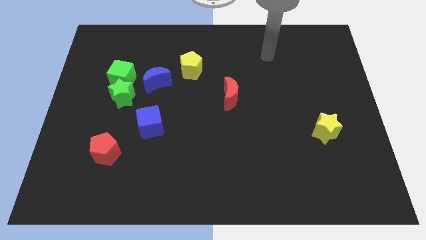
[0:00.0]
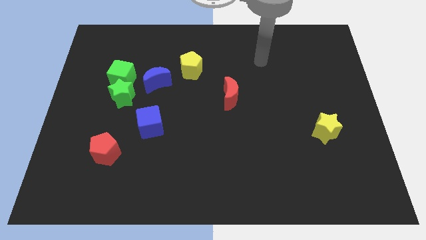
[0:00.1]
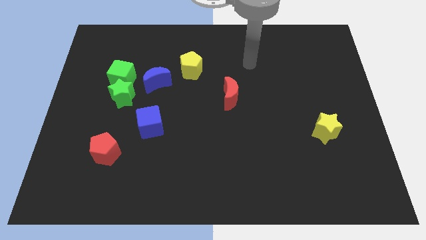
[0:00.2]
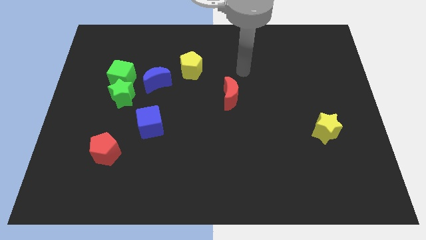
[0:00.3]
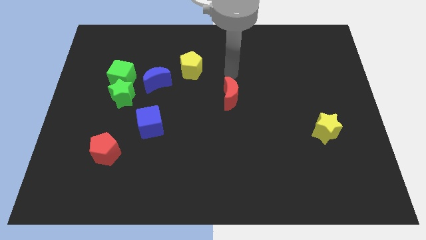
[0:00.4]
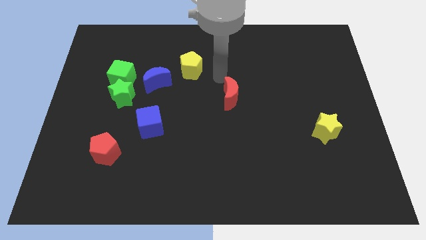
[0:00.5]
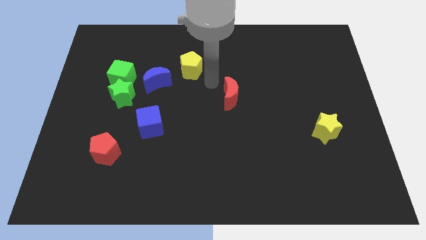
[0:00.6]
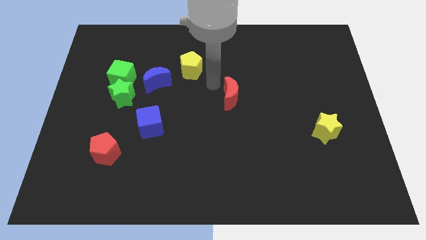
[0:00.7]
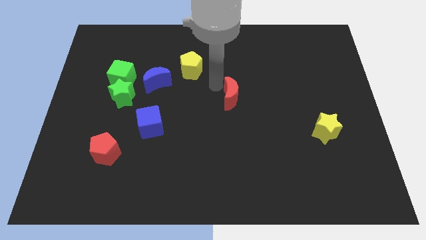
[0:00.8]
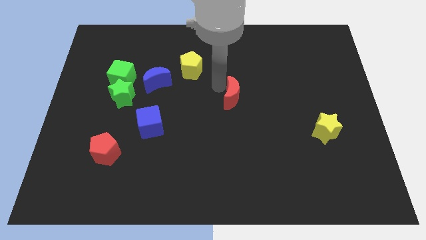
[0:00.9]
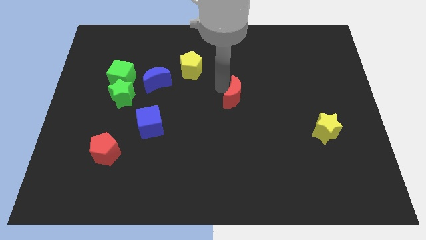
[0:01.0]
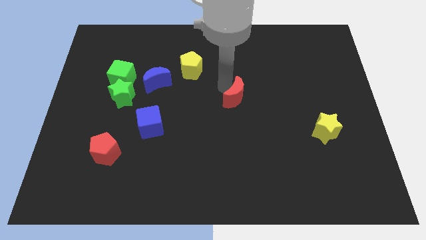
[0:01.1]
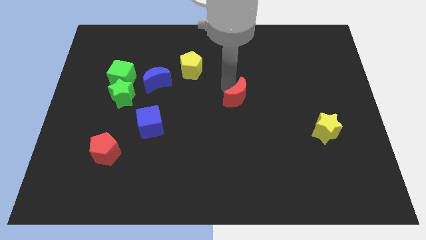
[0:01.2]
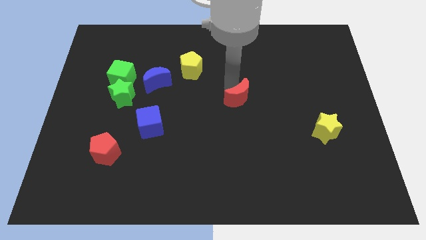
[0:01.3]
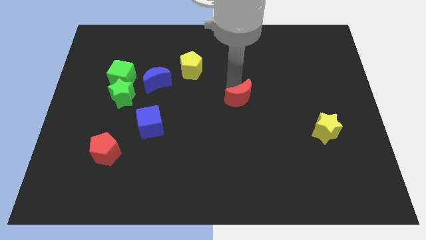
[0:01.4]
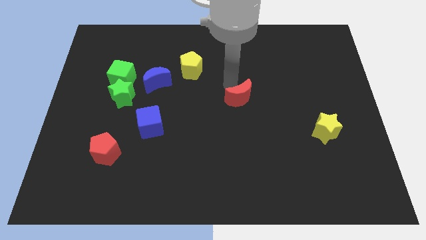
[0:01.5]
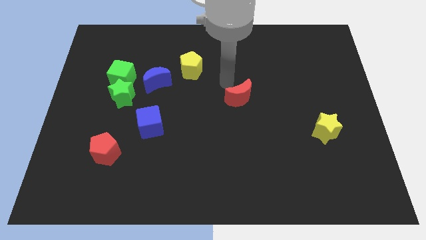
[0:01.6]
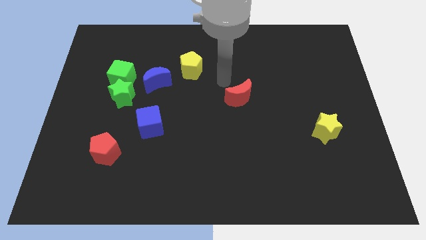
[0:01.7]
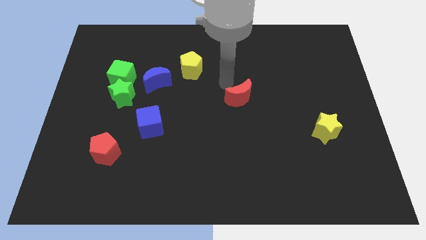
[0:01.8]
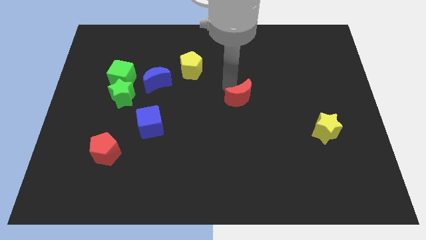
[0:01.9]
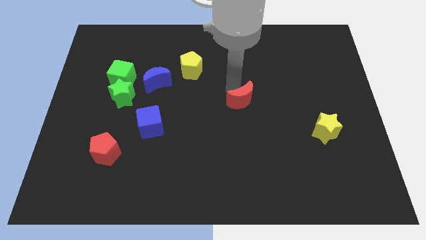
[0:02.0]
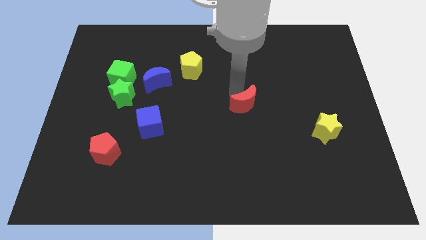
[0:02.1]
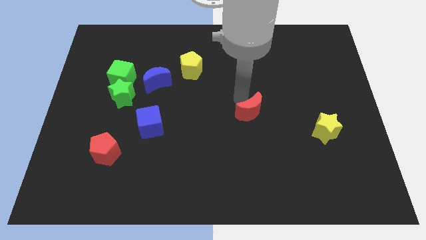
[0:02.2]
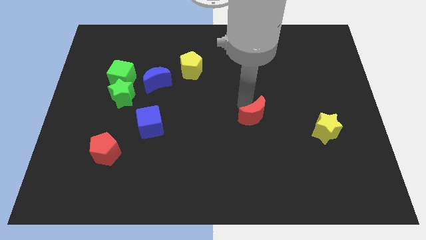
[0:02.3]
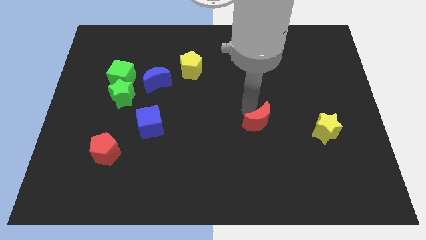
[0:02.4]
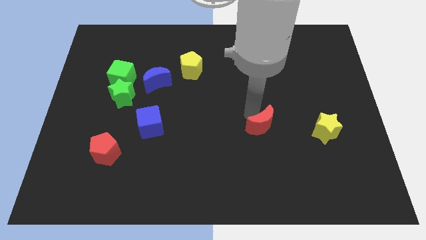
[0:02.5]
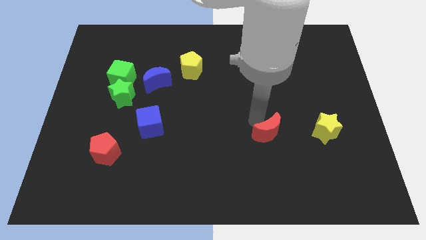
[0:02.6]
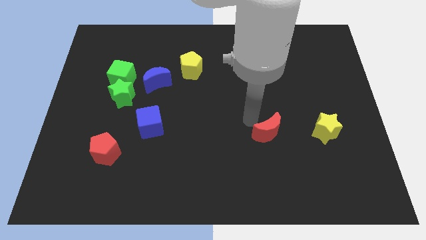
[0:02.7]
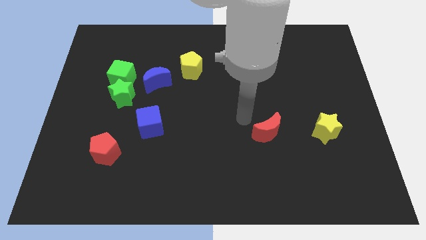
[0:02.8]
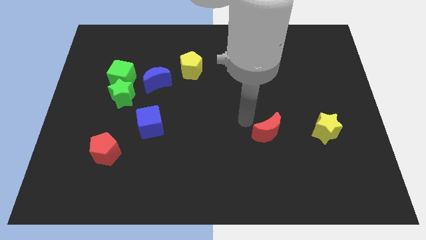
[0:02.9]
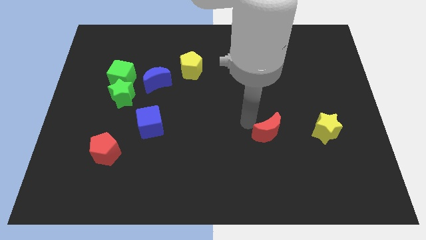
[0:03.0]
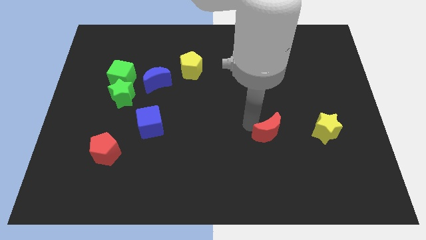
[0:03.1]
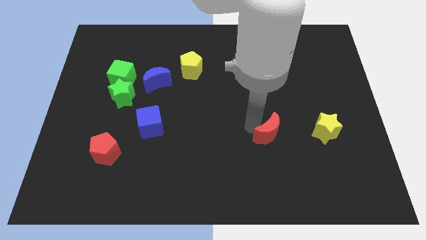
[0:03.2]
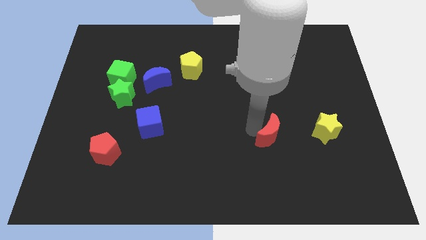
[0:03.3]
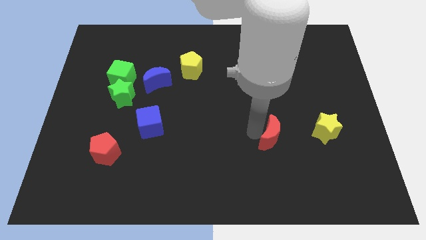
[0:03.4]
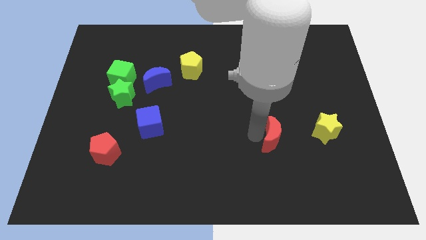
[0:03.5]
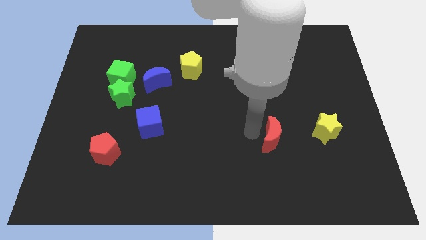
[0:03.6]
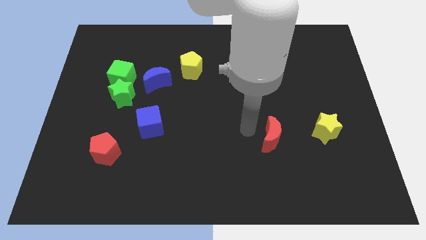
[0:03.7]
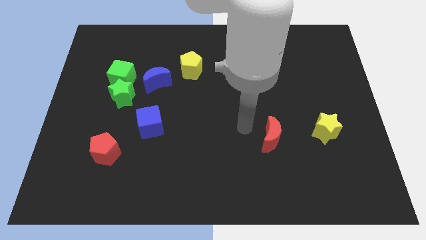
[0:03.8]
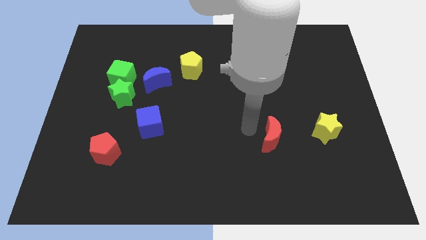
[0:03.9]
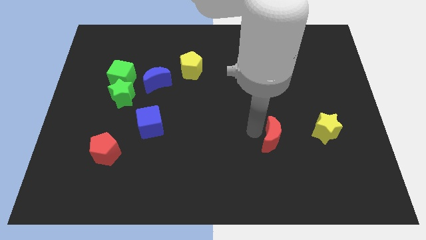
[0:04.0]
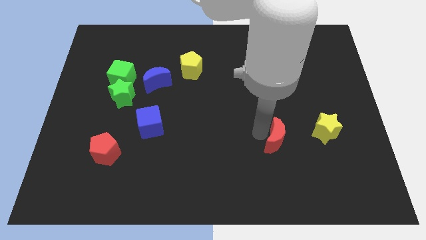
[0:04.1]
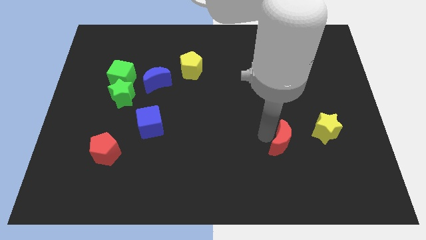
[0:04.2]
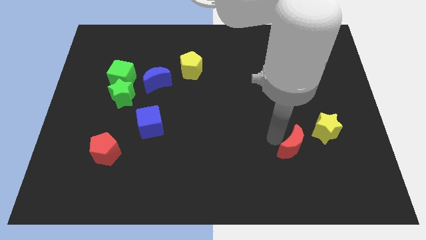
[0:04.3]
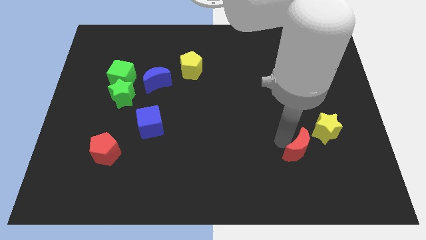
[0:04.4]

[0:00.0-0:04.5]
push the red moon downwards and then right

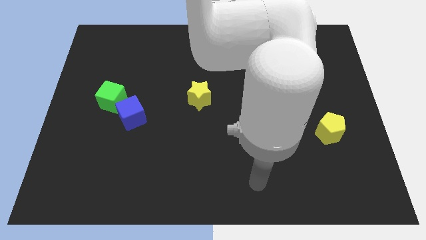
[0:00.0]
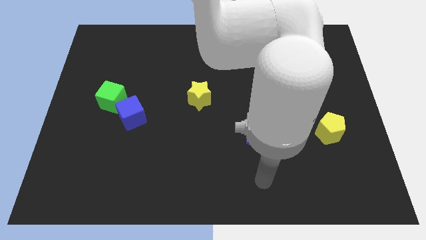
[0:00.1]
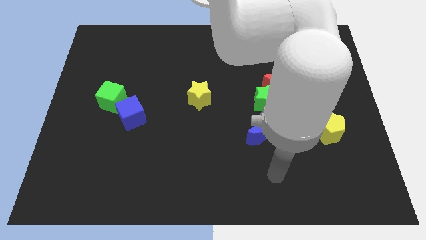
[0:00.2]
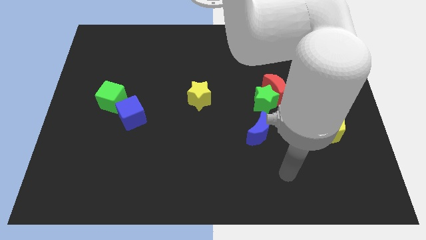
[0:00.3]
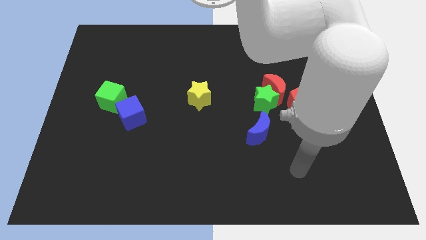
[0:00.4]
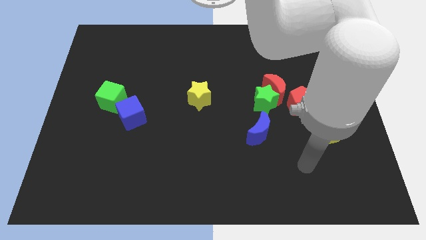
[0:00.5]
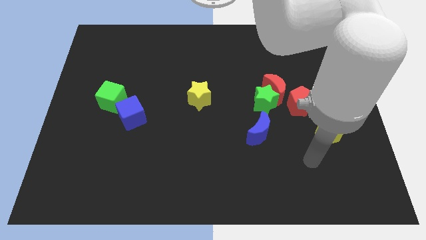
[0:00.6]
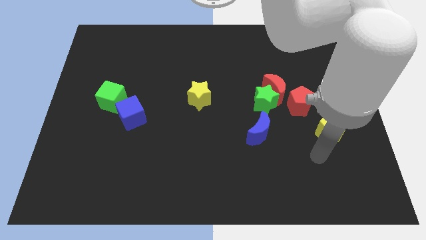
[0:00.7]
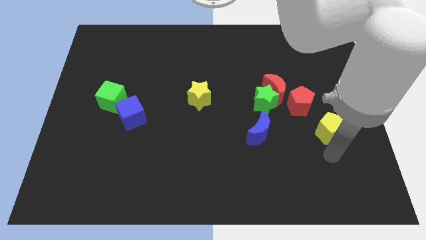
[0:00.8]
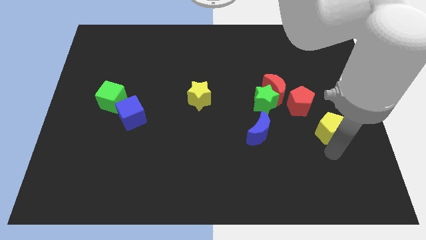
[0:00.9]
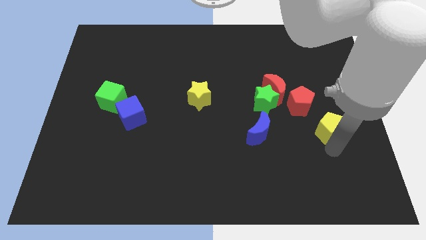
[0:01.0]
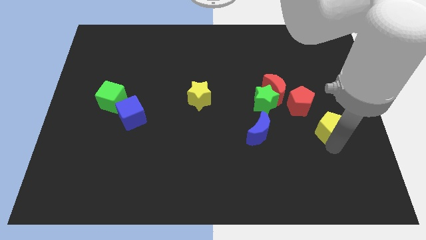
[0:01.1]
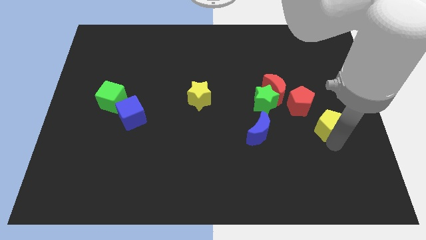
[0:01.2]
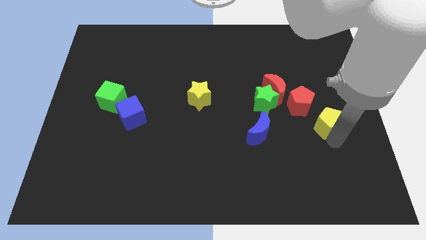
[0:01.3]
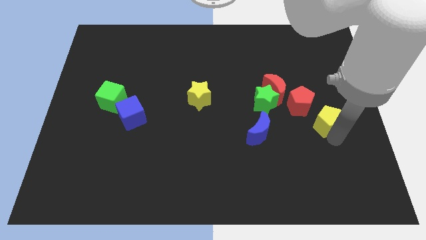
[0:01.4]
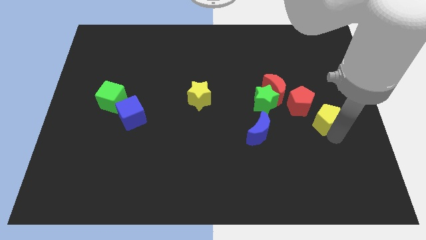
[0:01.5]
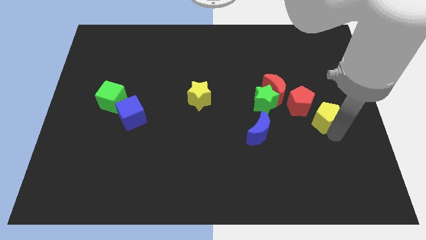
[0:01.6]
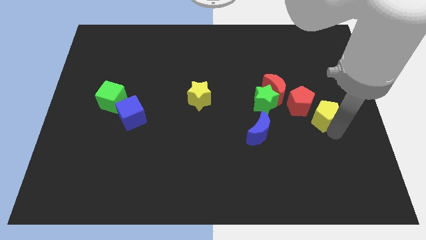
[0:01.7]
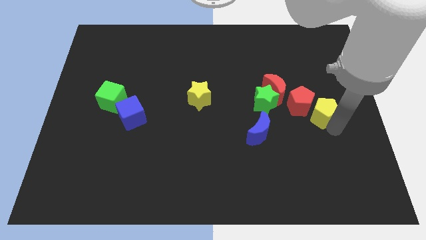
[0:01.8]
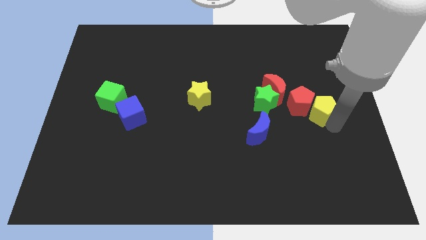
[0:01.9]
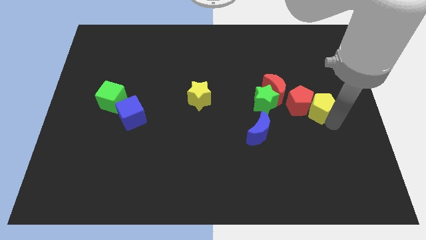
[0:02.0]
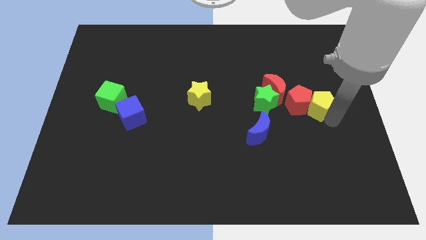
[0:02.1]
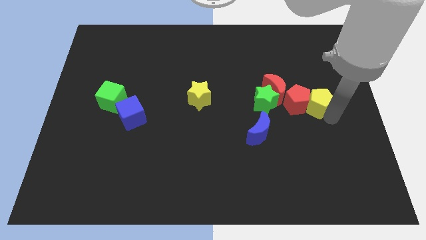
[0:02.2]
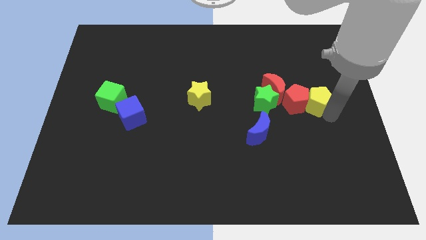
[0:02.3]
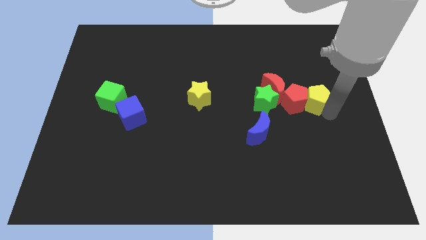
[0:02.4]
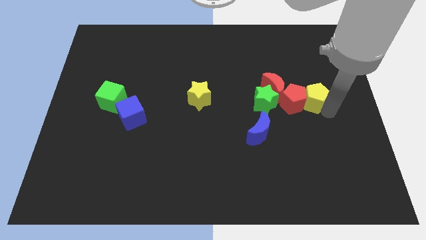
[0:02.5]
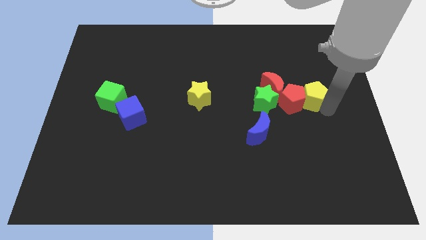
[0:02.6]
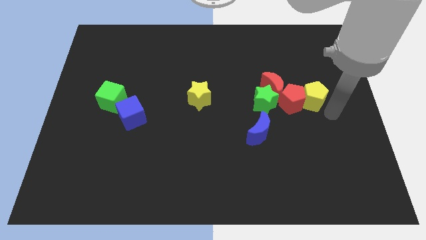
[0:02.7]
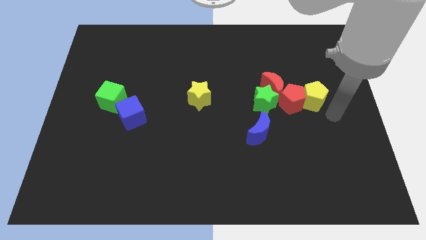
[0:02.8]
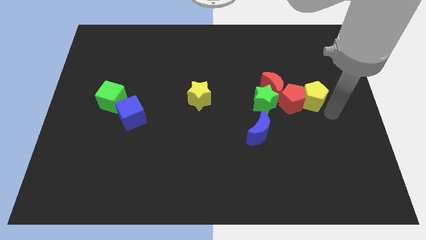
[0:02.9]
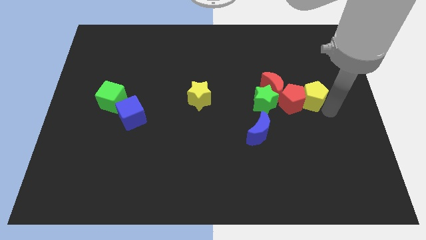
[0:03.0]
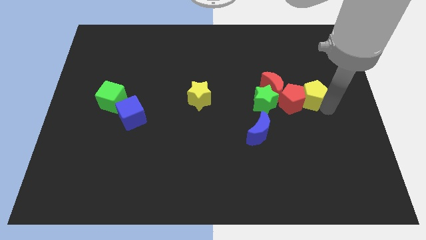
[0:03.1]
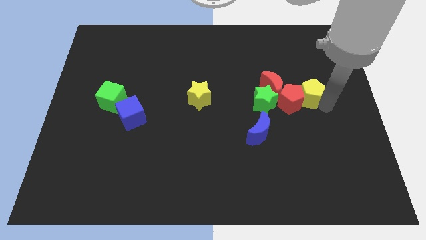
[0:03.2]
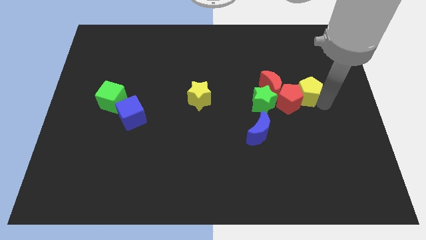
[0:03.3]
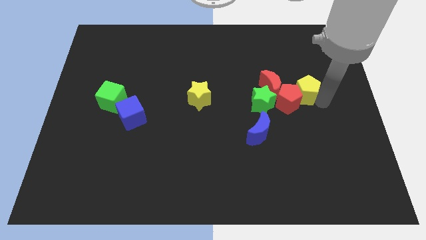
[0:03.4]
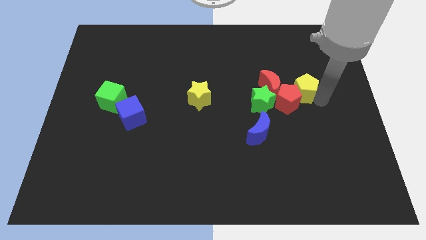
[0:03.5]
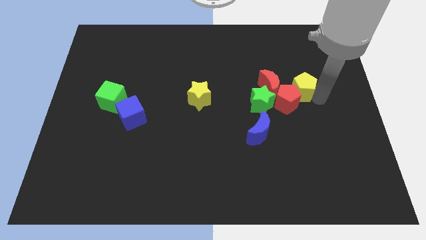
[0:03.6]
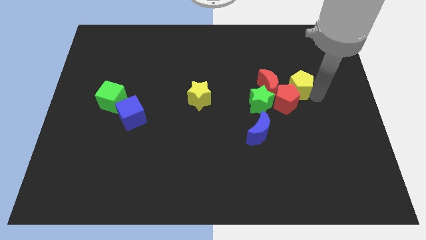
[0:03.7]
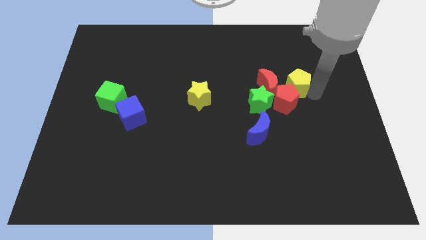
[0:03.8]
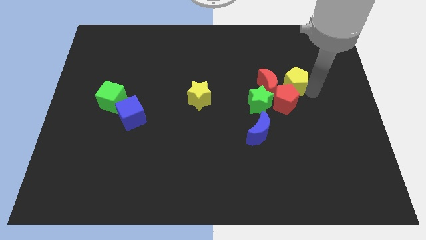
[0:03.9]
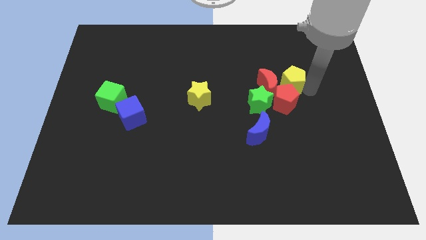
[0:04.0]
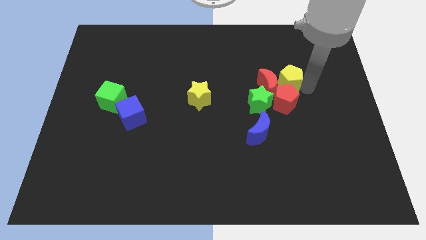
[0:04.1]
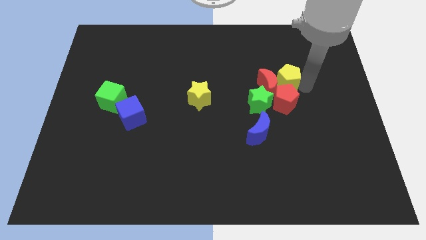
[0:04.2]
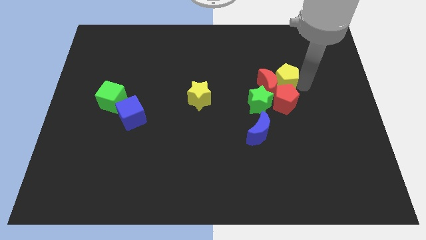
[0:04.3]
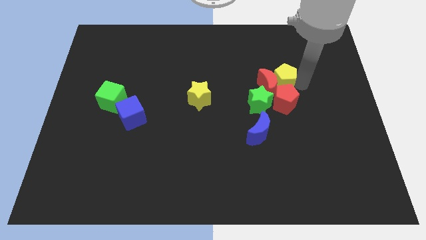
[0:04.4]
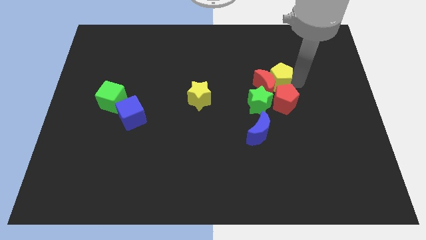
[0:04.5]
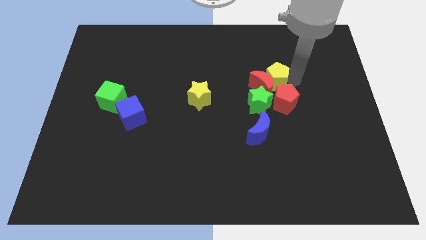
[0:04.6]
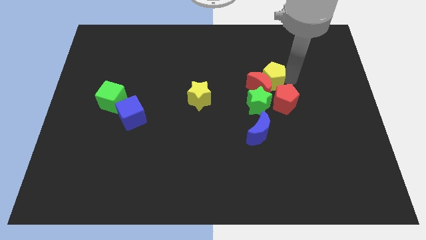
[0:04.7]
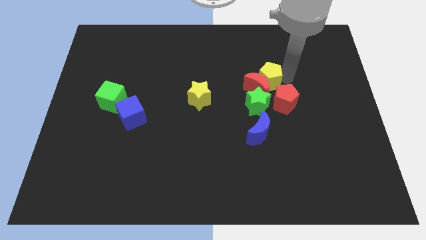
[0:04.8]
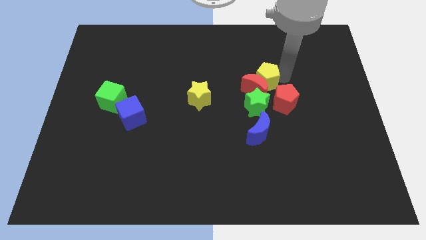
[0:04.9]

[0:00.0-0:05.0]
move the yellow pentagon upwards and left diagonally
